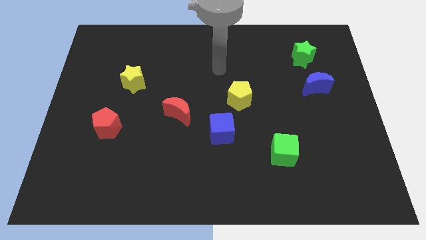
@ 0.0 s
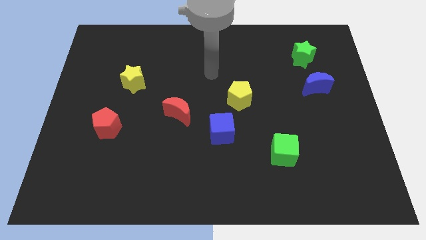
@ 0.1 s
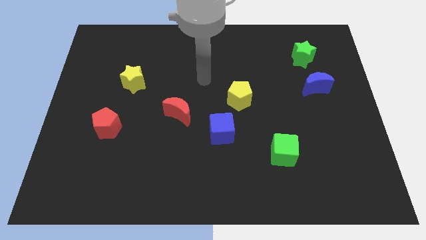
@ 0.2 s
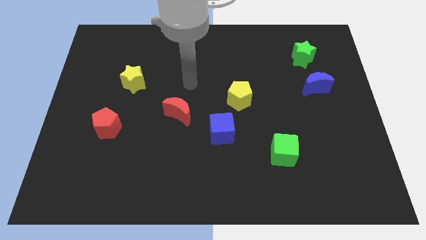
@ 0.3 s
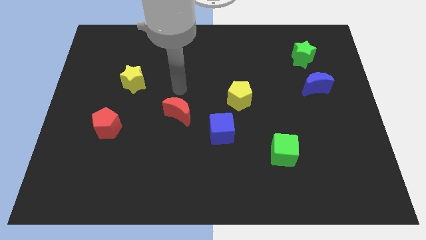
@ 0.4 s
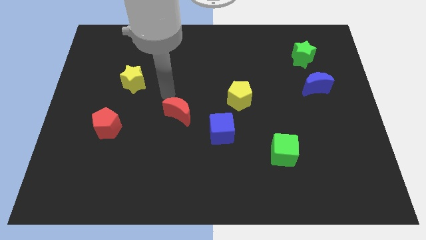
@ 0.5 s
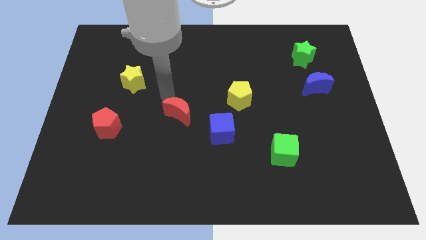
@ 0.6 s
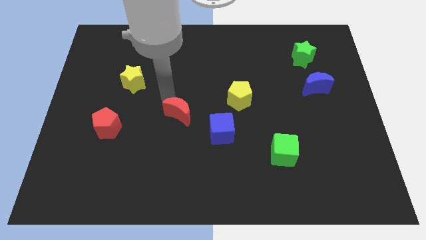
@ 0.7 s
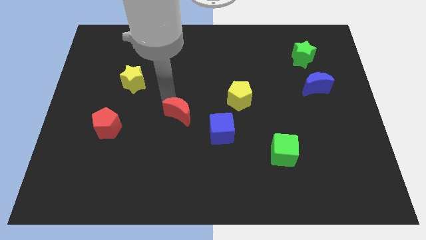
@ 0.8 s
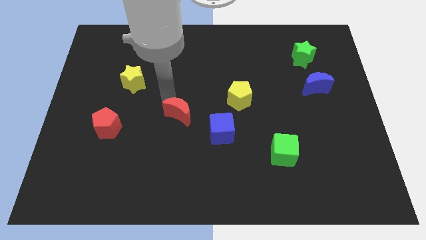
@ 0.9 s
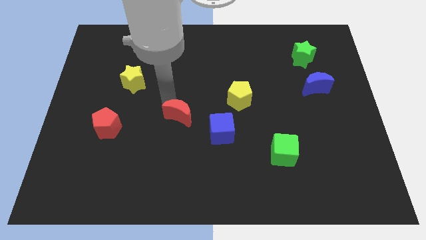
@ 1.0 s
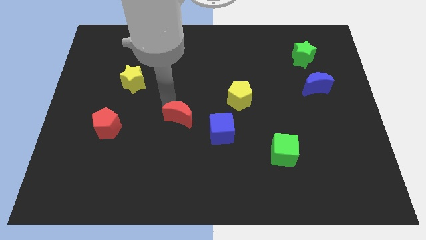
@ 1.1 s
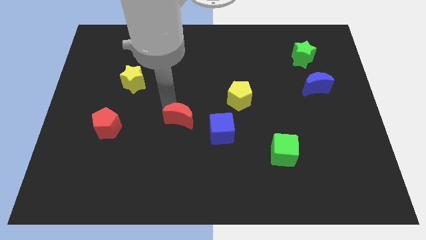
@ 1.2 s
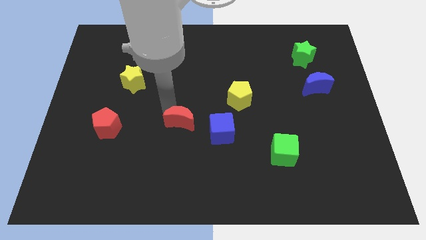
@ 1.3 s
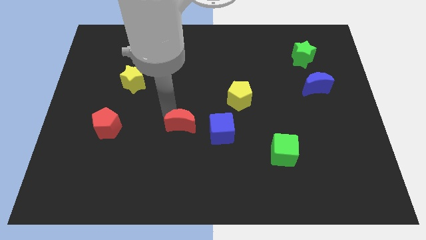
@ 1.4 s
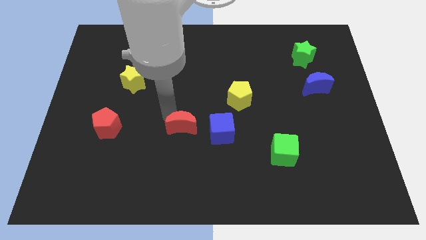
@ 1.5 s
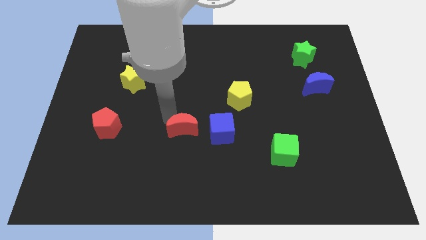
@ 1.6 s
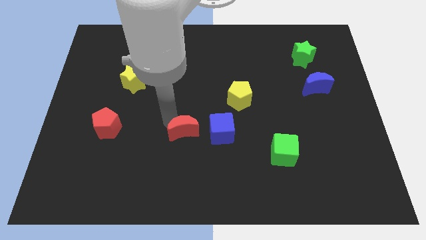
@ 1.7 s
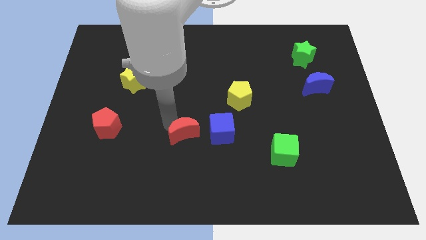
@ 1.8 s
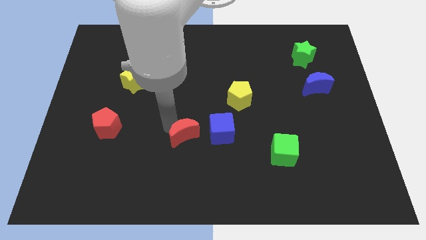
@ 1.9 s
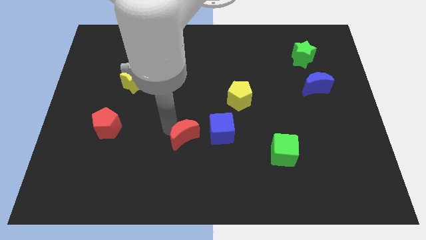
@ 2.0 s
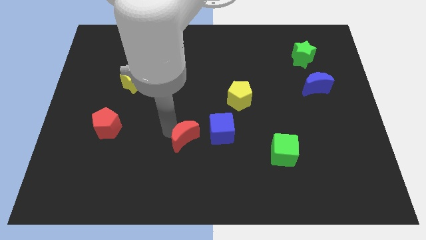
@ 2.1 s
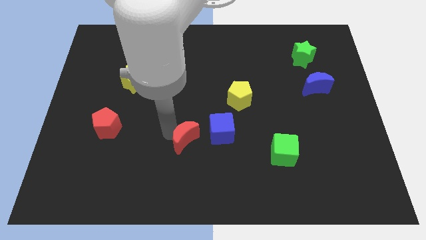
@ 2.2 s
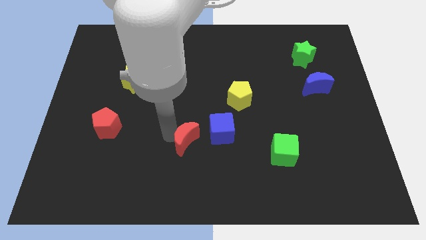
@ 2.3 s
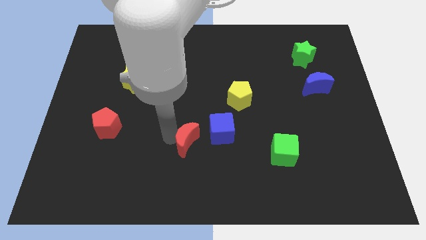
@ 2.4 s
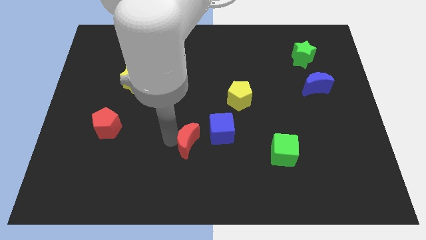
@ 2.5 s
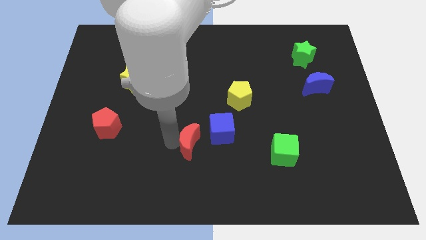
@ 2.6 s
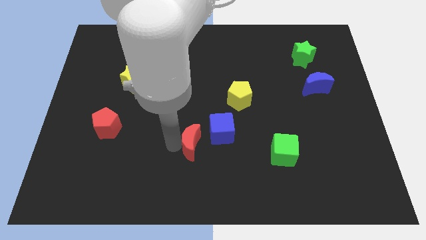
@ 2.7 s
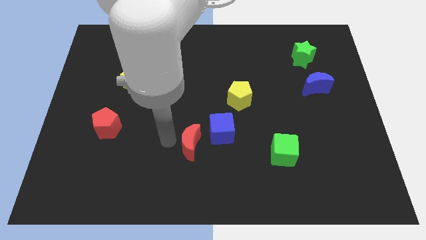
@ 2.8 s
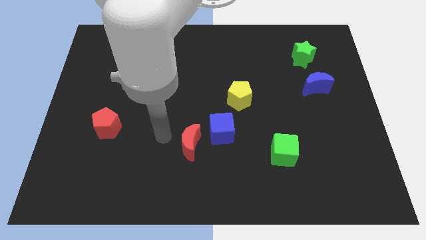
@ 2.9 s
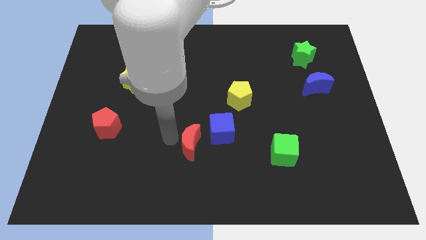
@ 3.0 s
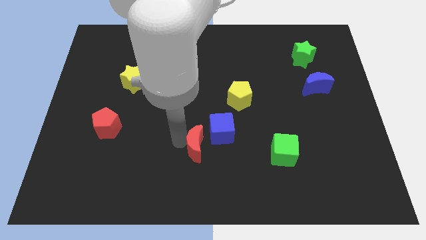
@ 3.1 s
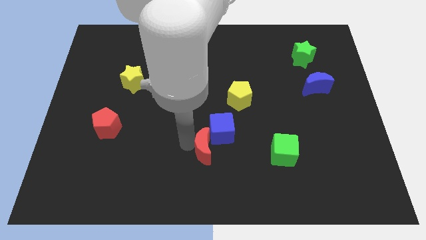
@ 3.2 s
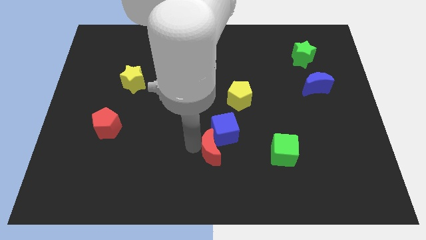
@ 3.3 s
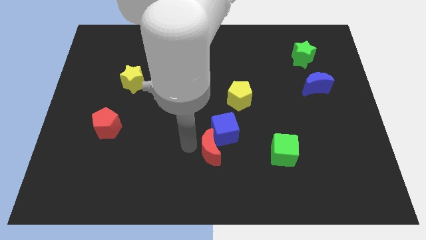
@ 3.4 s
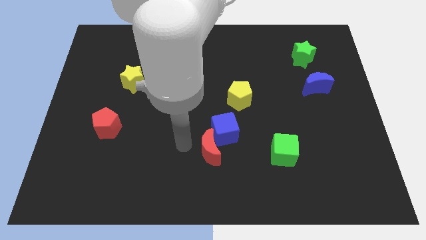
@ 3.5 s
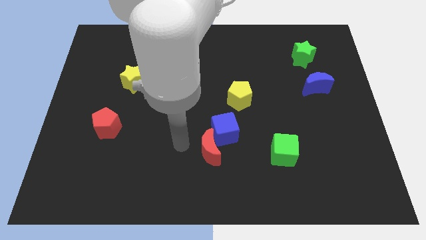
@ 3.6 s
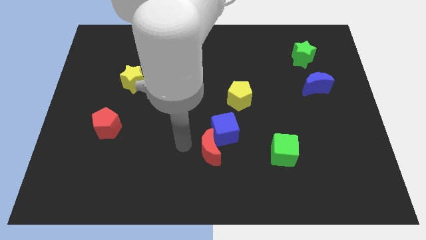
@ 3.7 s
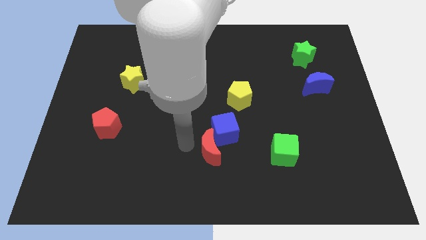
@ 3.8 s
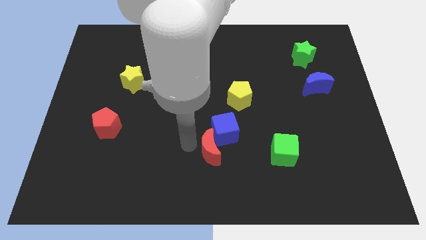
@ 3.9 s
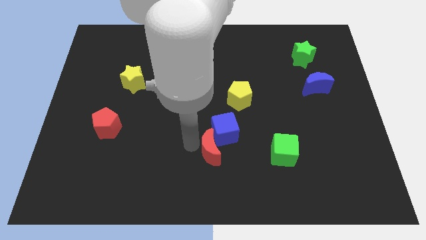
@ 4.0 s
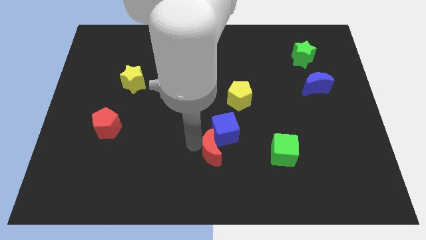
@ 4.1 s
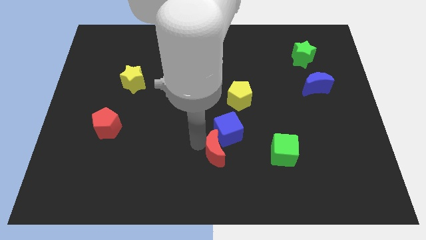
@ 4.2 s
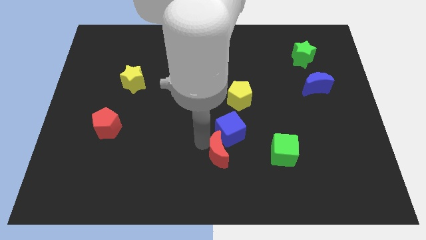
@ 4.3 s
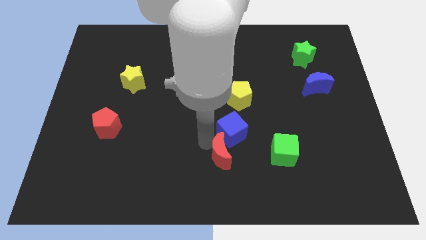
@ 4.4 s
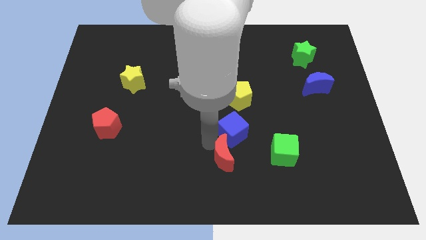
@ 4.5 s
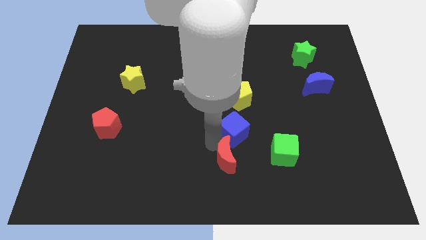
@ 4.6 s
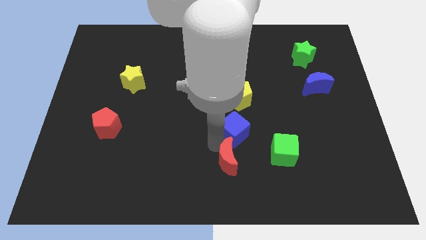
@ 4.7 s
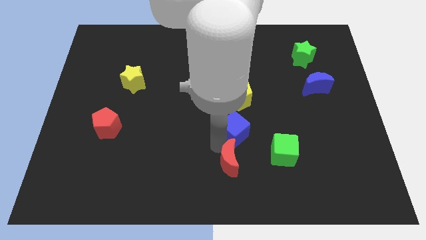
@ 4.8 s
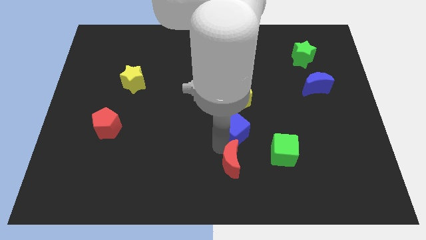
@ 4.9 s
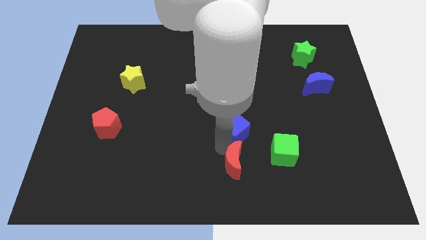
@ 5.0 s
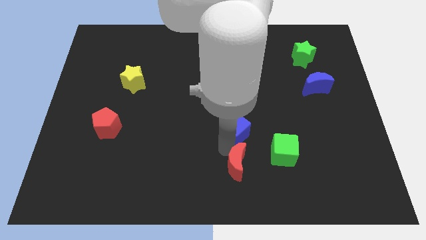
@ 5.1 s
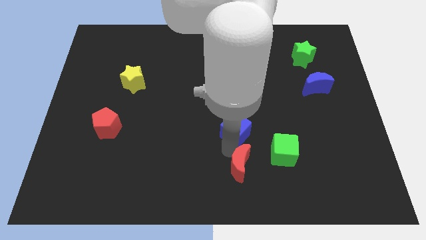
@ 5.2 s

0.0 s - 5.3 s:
put the red moon to the bottom left of the green cube

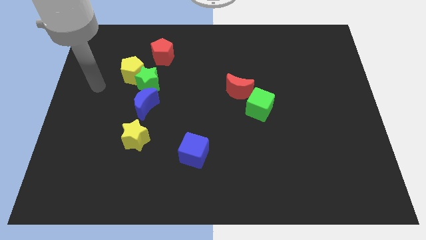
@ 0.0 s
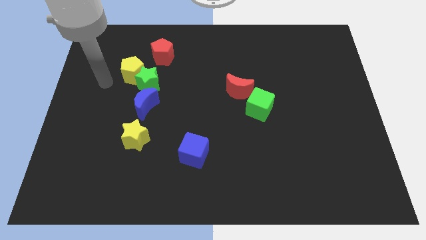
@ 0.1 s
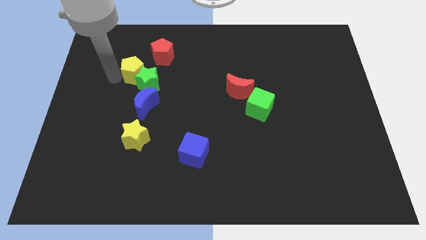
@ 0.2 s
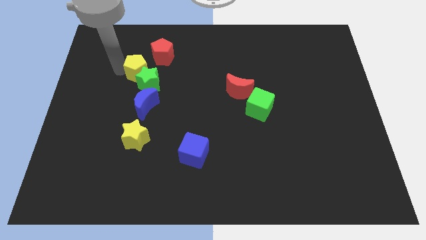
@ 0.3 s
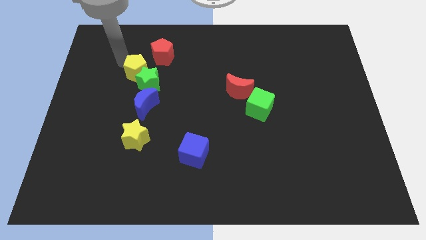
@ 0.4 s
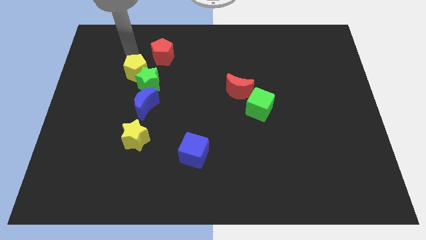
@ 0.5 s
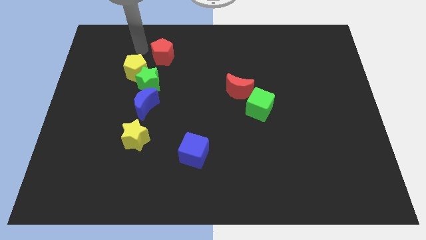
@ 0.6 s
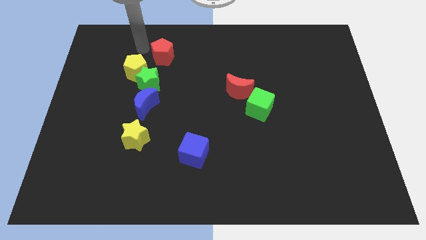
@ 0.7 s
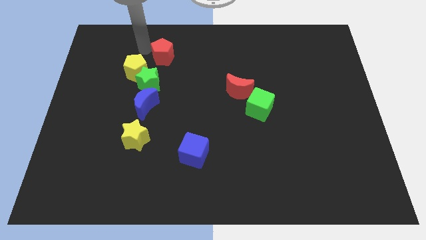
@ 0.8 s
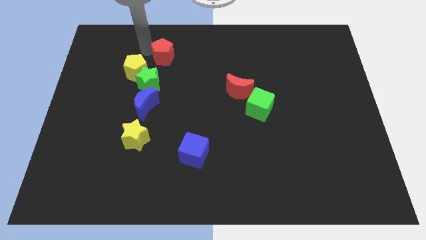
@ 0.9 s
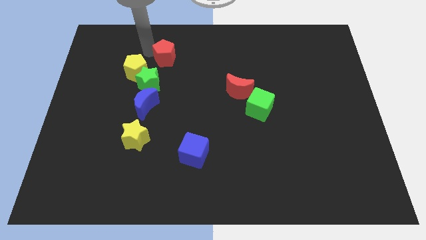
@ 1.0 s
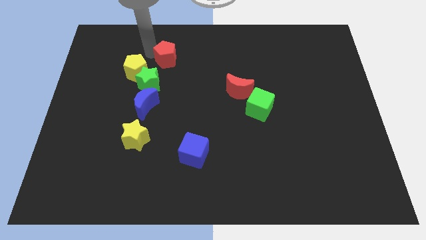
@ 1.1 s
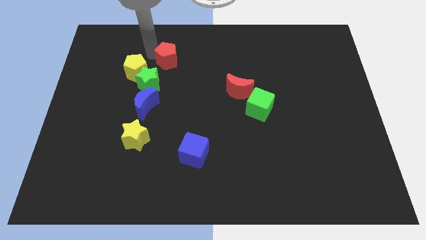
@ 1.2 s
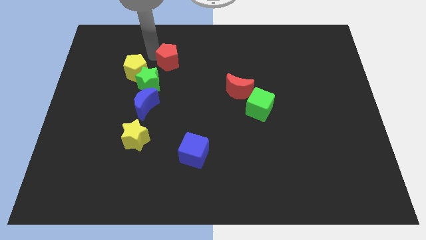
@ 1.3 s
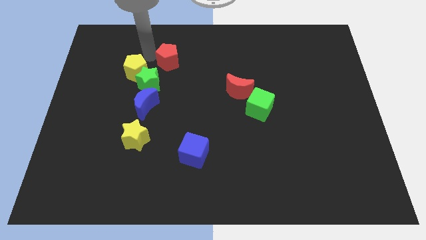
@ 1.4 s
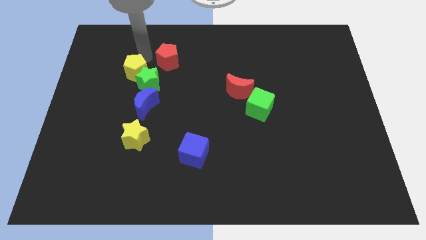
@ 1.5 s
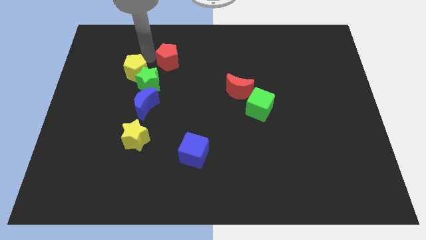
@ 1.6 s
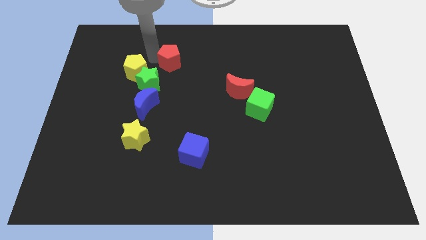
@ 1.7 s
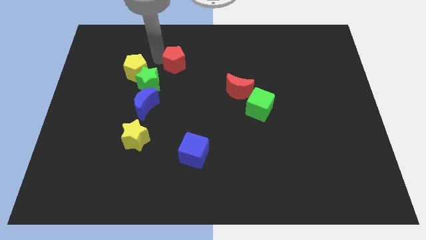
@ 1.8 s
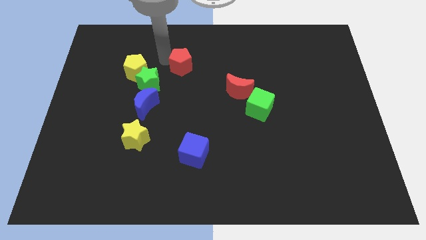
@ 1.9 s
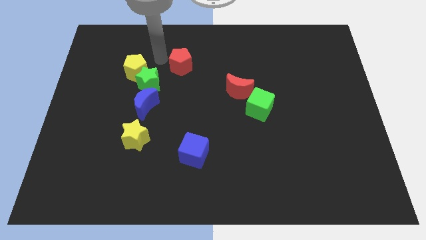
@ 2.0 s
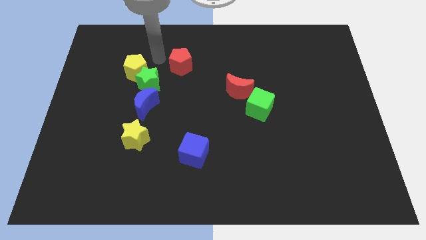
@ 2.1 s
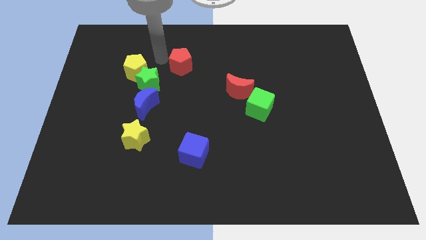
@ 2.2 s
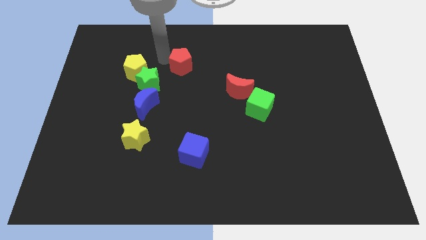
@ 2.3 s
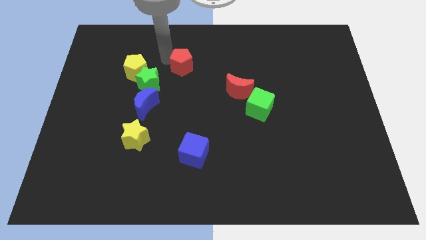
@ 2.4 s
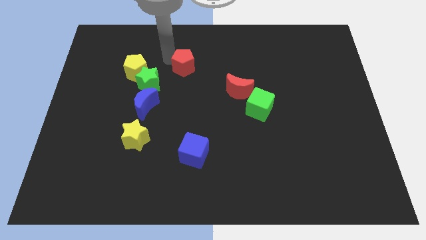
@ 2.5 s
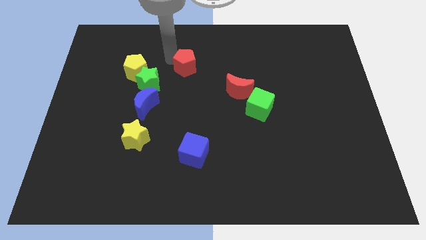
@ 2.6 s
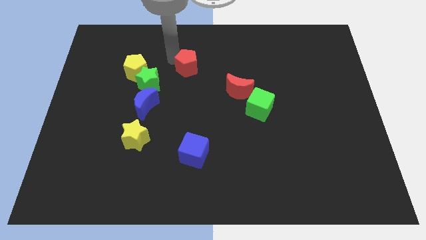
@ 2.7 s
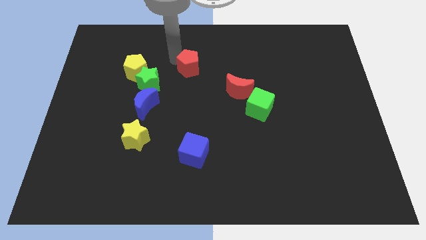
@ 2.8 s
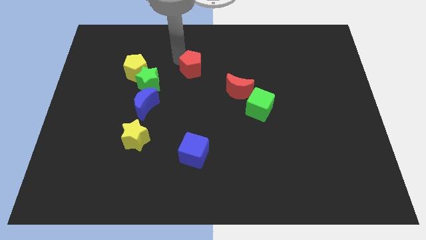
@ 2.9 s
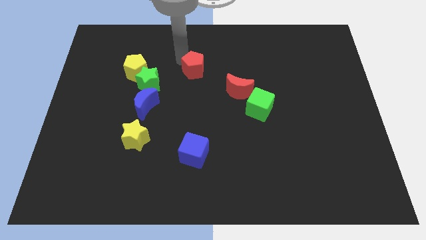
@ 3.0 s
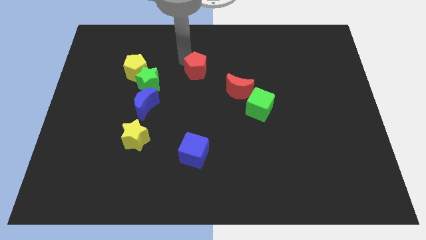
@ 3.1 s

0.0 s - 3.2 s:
put the red pentagon diagonally up and to the left of the red moon
